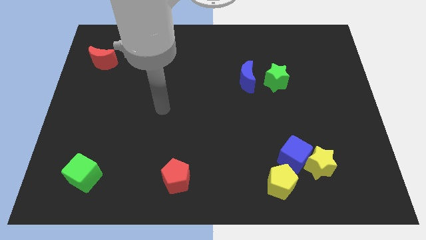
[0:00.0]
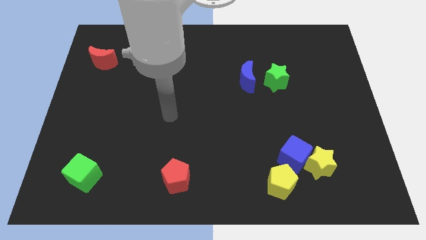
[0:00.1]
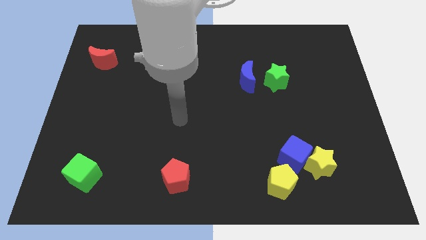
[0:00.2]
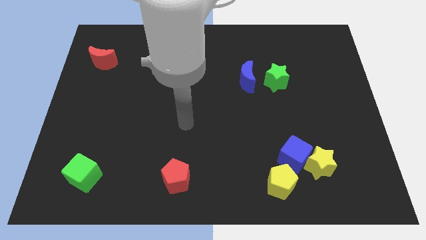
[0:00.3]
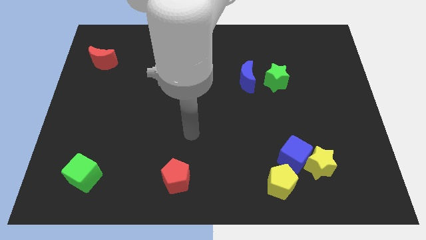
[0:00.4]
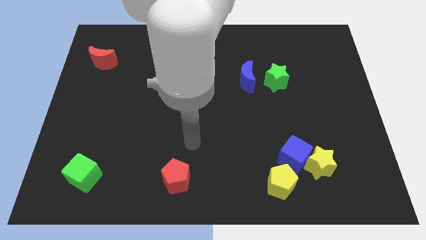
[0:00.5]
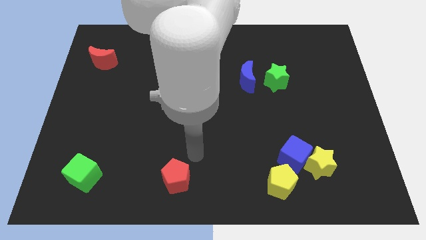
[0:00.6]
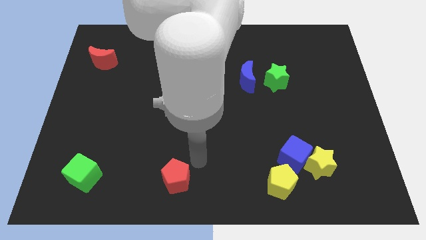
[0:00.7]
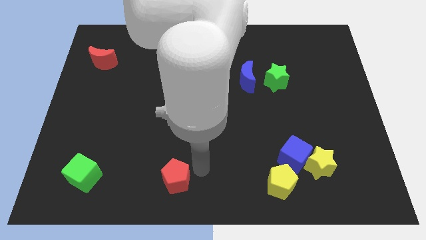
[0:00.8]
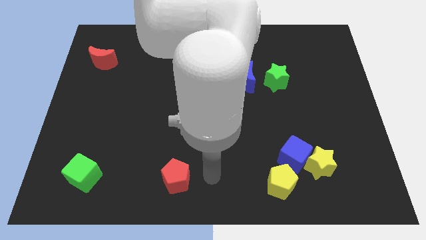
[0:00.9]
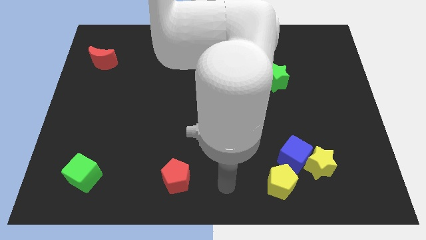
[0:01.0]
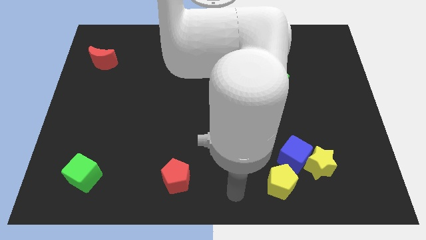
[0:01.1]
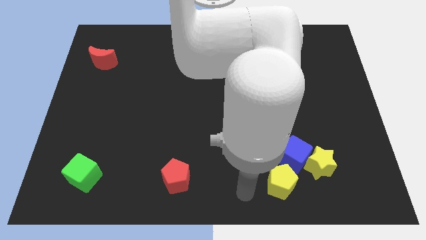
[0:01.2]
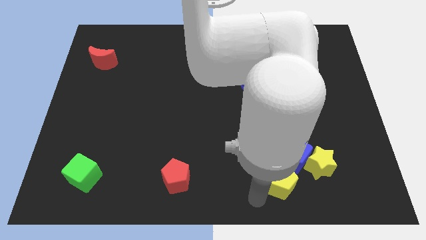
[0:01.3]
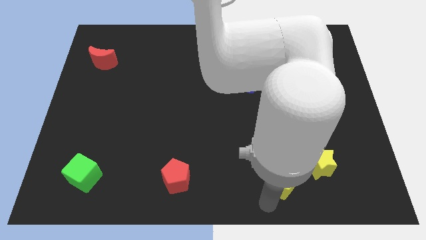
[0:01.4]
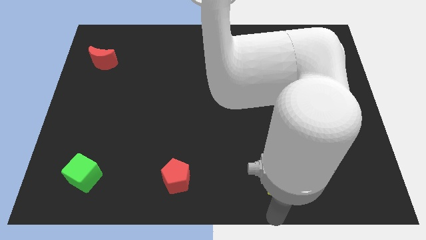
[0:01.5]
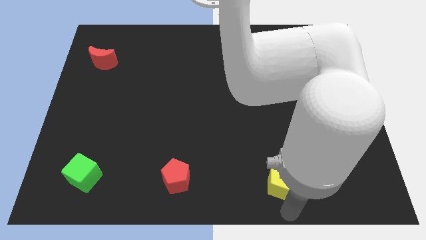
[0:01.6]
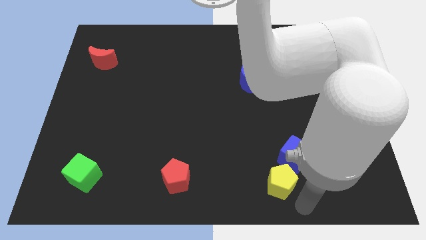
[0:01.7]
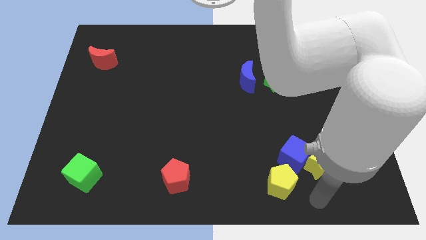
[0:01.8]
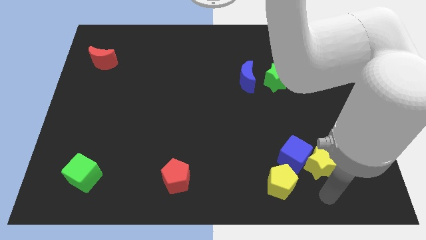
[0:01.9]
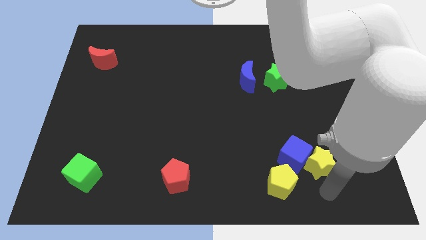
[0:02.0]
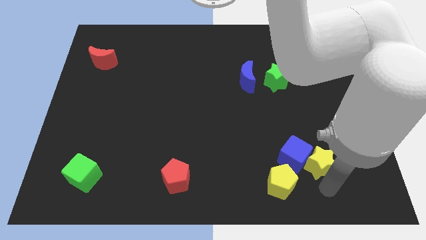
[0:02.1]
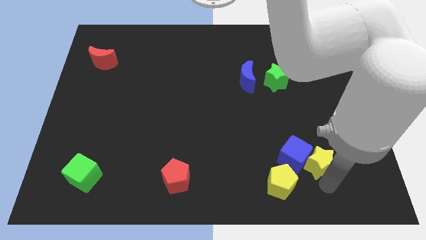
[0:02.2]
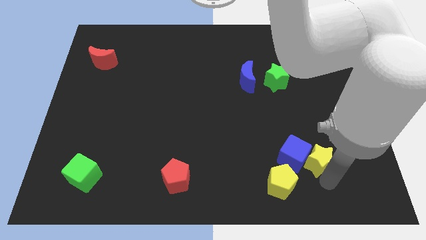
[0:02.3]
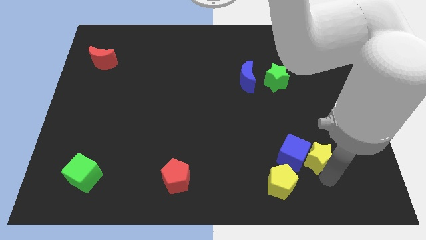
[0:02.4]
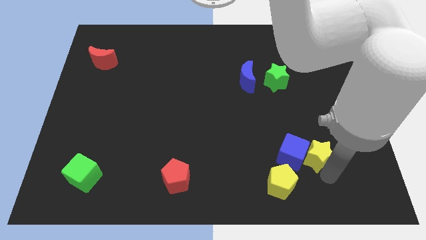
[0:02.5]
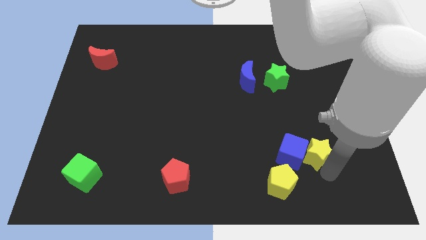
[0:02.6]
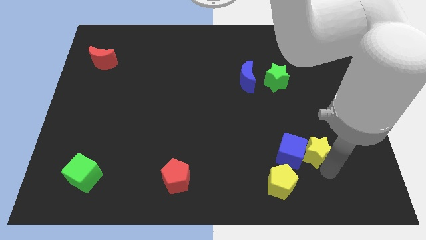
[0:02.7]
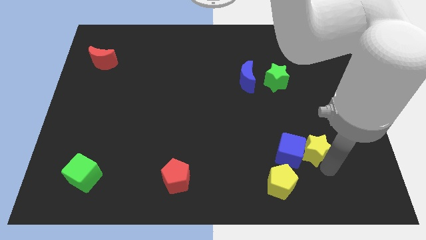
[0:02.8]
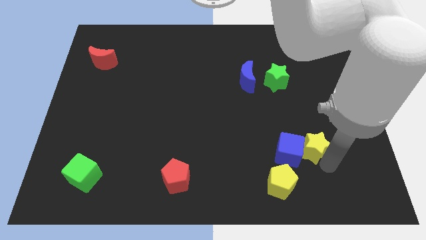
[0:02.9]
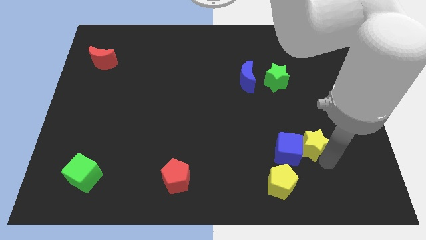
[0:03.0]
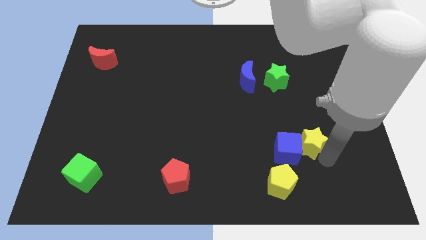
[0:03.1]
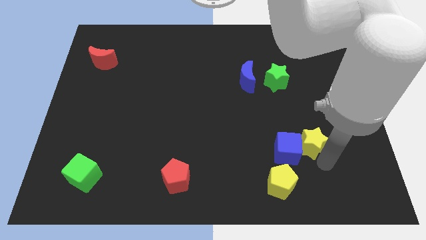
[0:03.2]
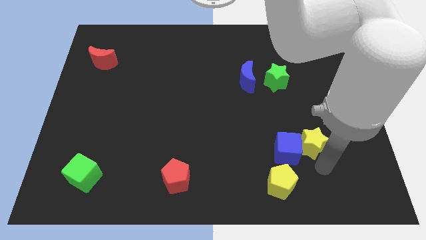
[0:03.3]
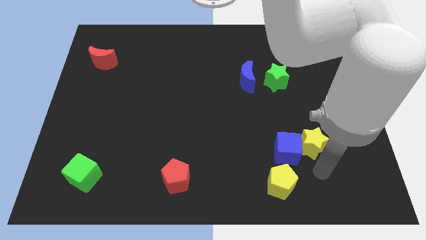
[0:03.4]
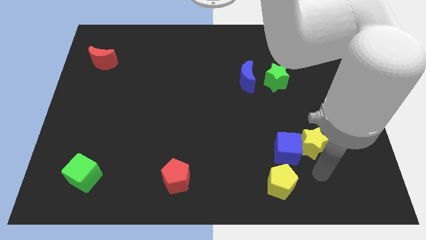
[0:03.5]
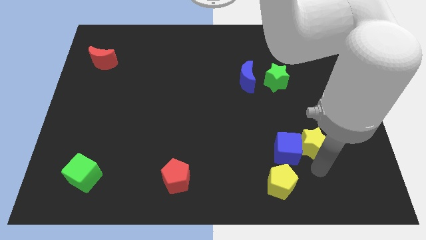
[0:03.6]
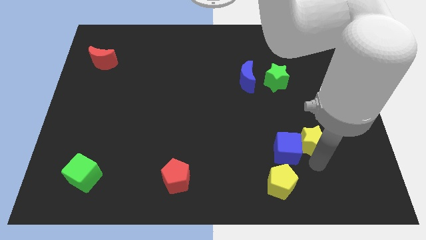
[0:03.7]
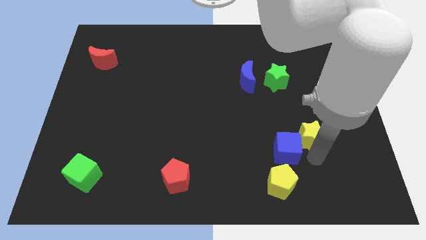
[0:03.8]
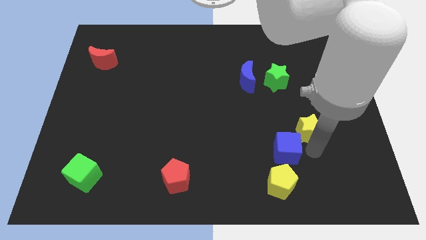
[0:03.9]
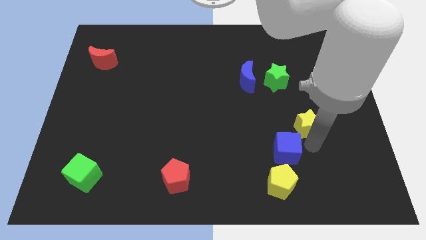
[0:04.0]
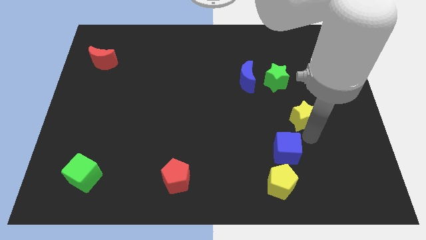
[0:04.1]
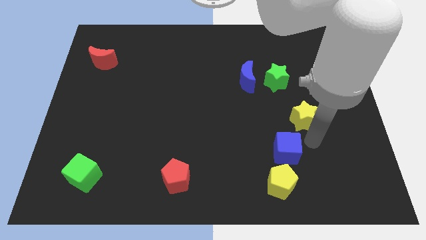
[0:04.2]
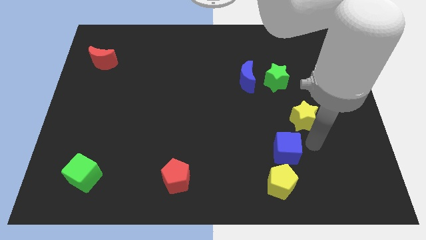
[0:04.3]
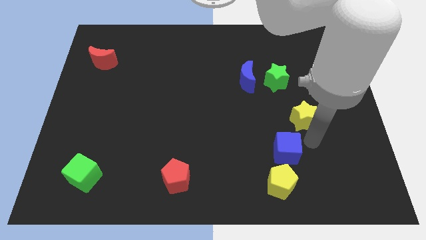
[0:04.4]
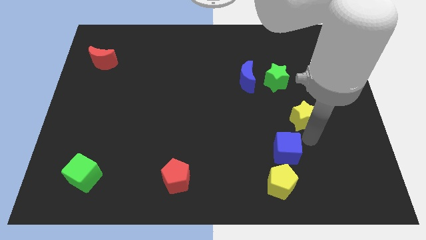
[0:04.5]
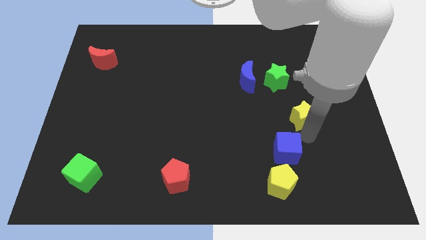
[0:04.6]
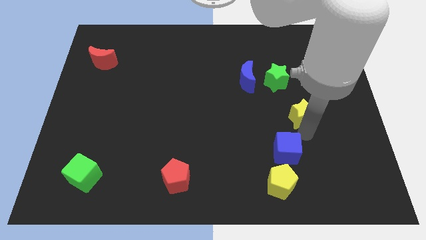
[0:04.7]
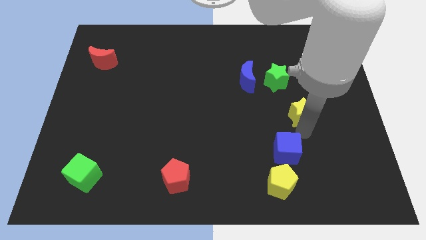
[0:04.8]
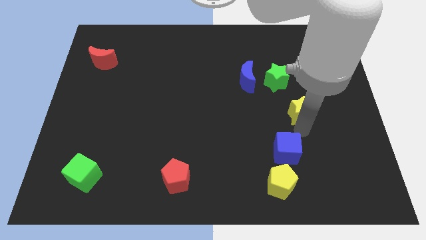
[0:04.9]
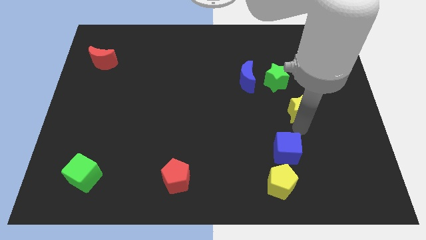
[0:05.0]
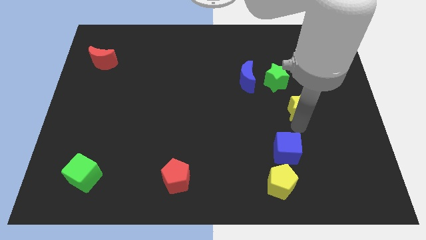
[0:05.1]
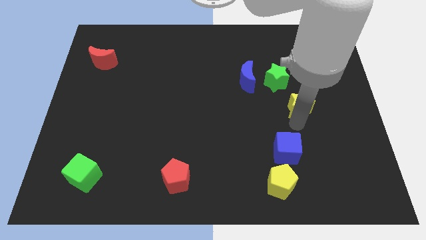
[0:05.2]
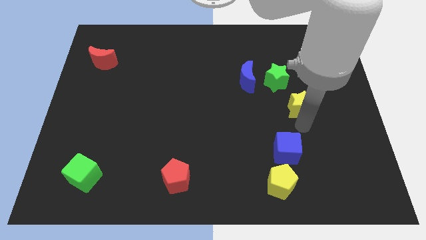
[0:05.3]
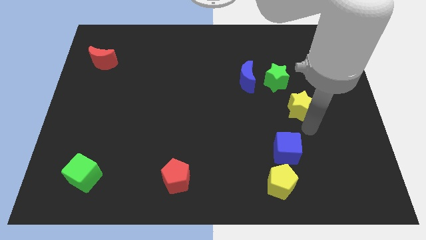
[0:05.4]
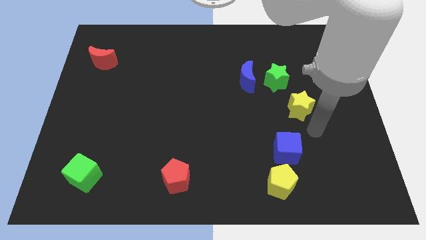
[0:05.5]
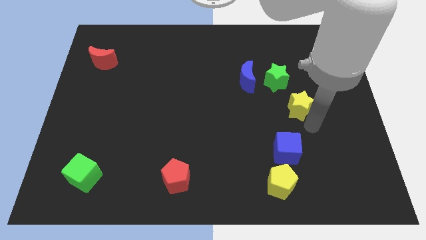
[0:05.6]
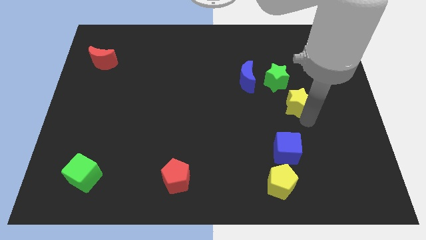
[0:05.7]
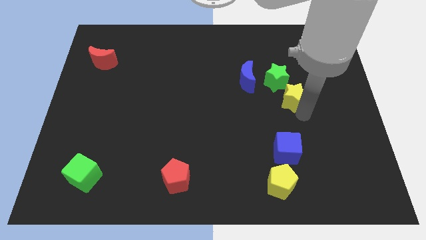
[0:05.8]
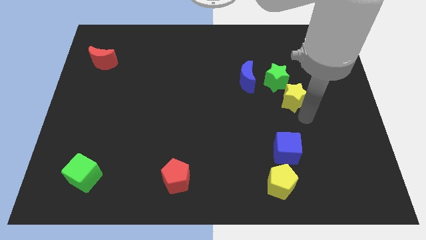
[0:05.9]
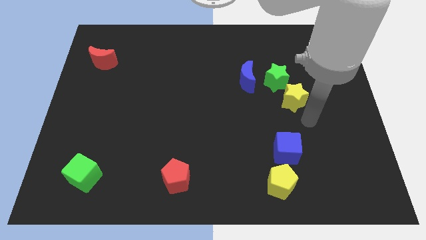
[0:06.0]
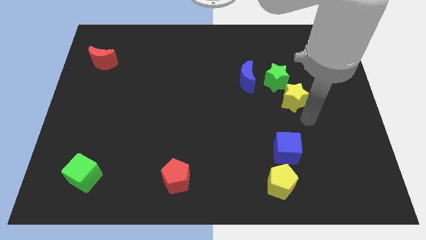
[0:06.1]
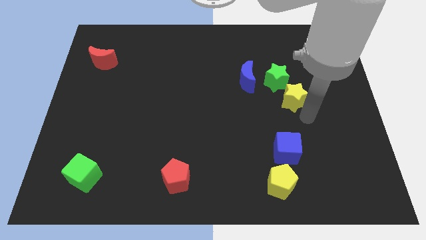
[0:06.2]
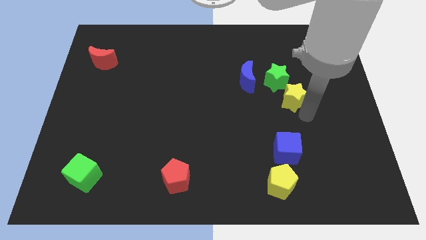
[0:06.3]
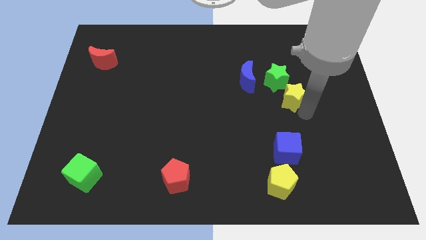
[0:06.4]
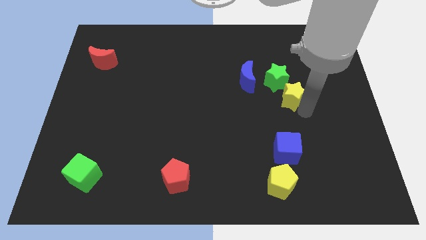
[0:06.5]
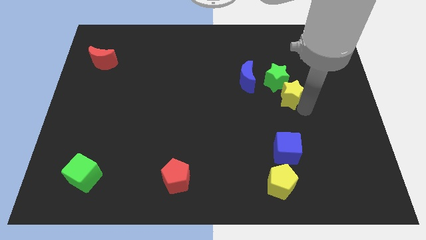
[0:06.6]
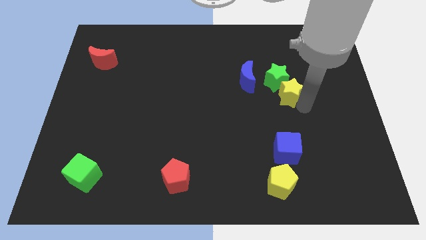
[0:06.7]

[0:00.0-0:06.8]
move the yellow star to the green star
